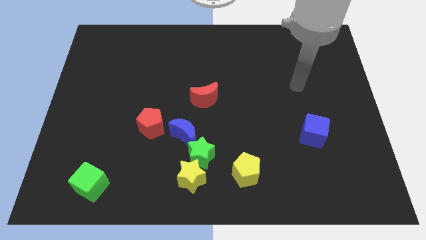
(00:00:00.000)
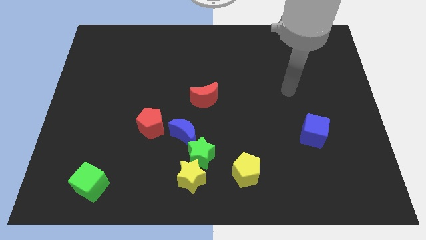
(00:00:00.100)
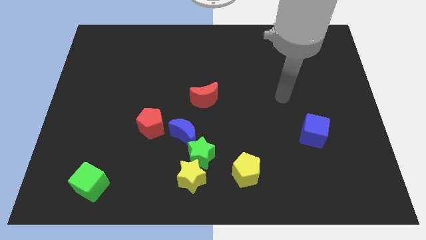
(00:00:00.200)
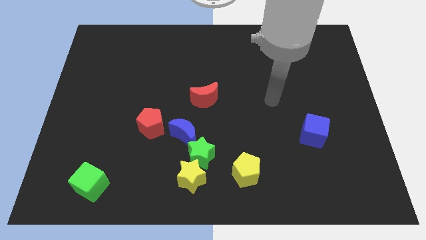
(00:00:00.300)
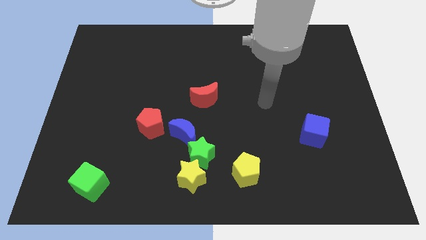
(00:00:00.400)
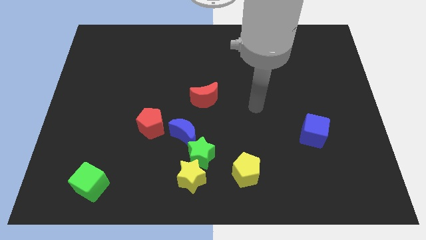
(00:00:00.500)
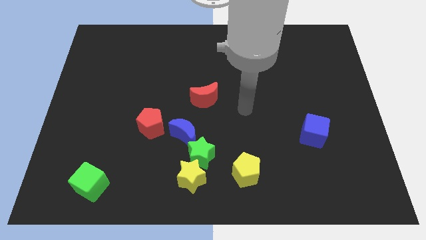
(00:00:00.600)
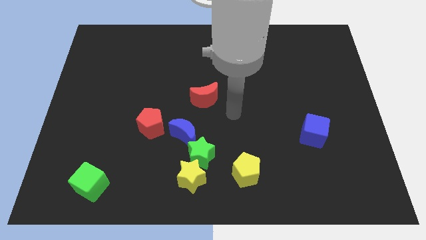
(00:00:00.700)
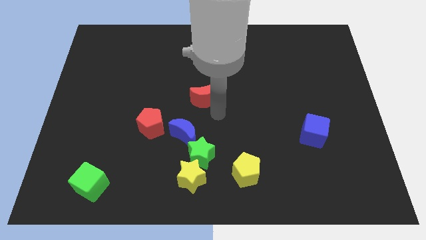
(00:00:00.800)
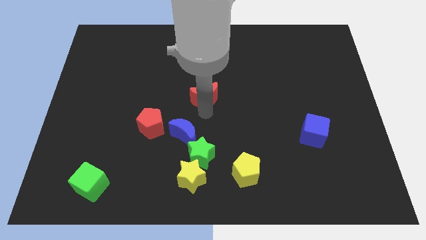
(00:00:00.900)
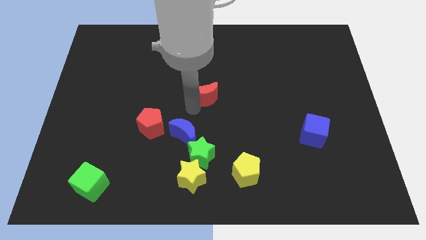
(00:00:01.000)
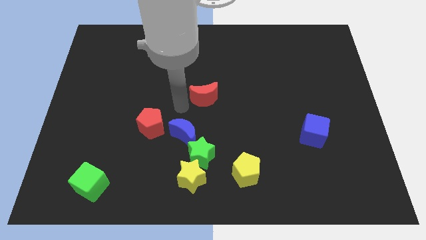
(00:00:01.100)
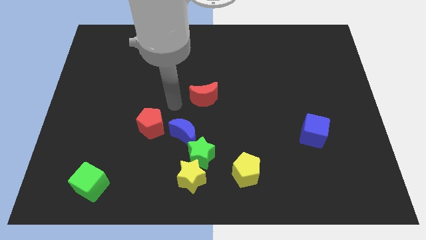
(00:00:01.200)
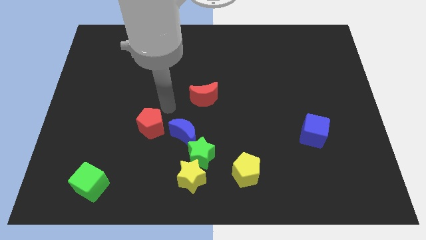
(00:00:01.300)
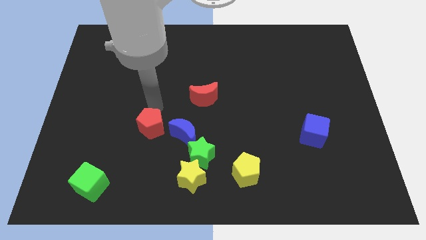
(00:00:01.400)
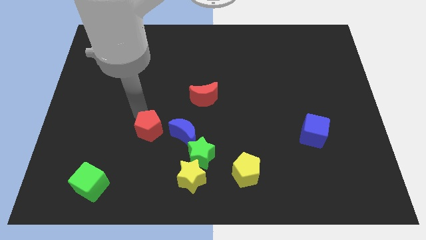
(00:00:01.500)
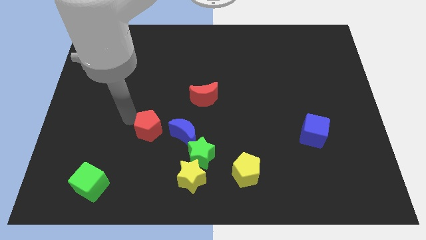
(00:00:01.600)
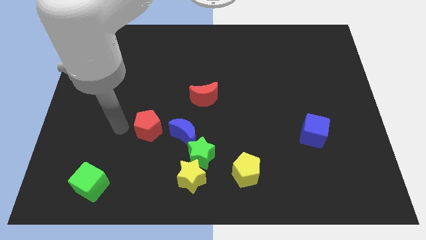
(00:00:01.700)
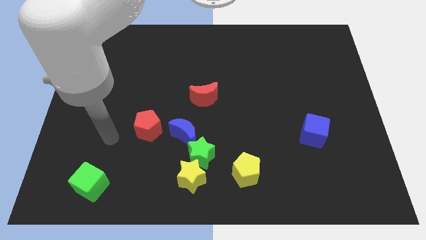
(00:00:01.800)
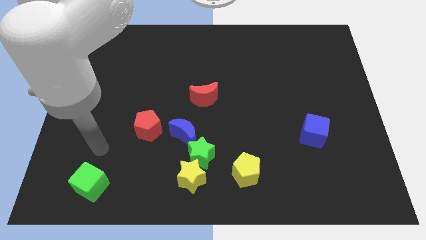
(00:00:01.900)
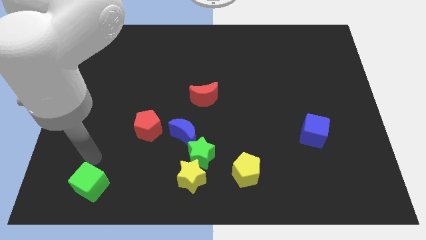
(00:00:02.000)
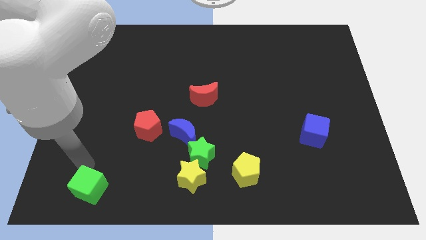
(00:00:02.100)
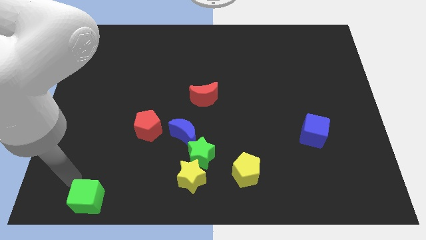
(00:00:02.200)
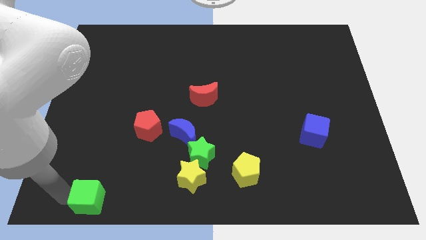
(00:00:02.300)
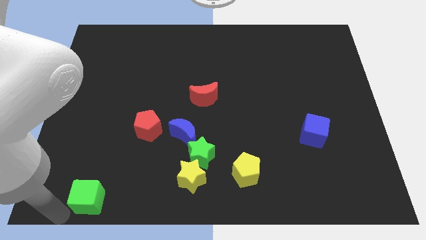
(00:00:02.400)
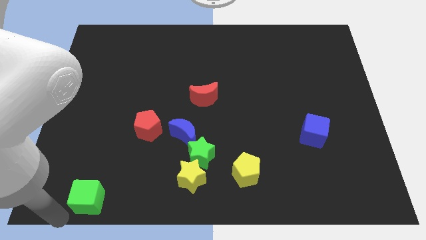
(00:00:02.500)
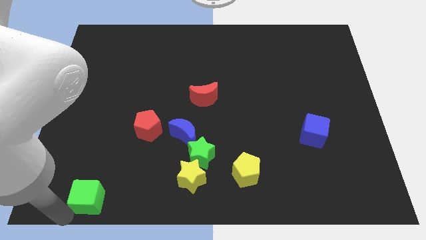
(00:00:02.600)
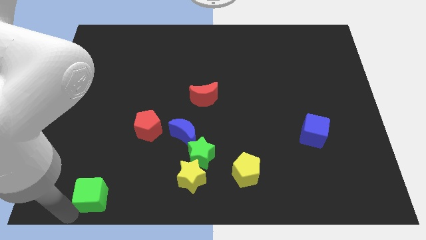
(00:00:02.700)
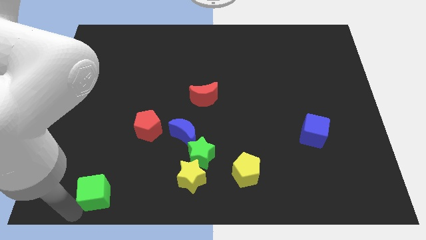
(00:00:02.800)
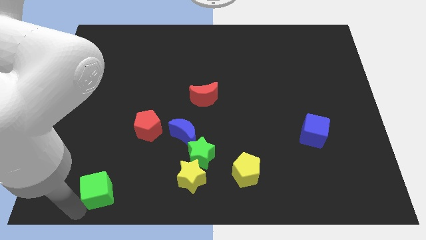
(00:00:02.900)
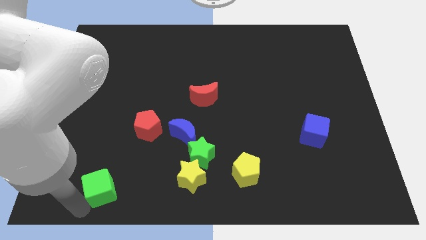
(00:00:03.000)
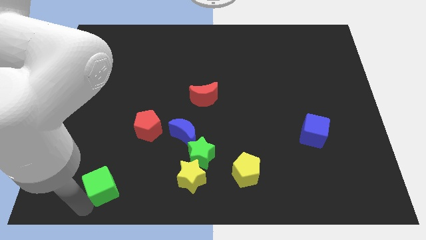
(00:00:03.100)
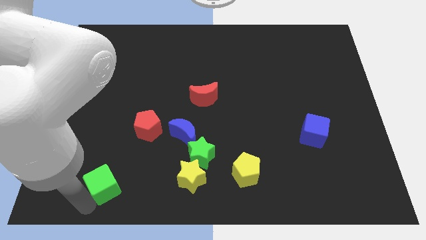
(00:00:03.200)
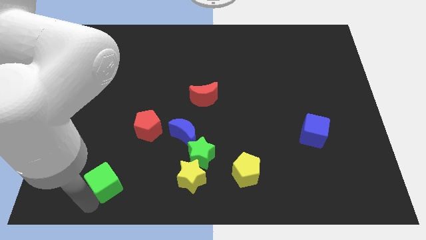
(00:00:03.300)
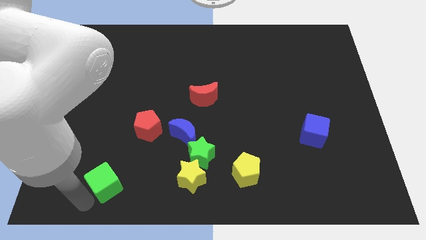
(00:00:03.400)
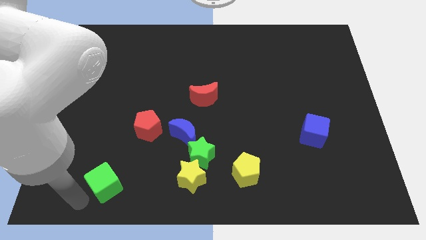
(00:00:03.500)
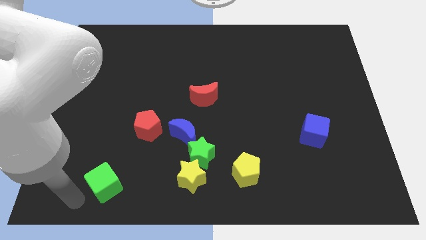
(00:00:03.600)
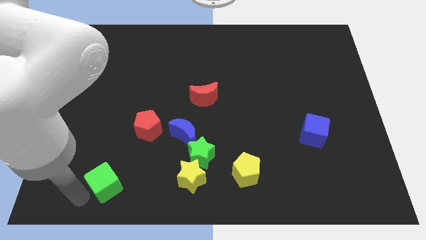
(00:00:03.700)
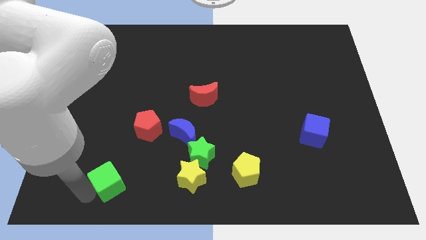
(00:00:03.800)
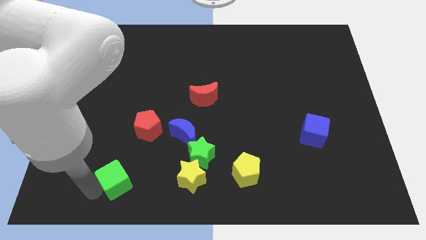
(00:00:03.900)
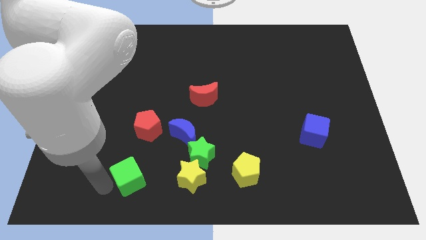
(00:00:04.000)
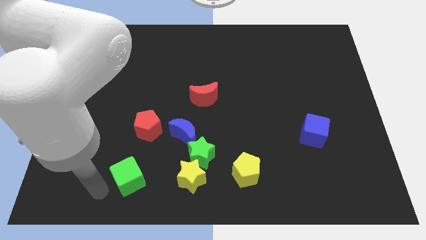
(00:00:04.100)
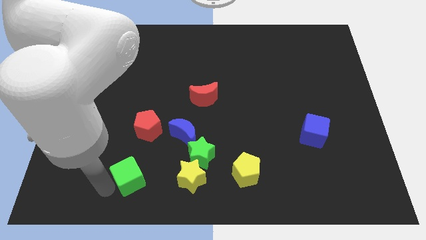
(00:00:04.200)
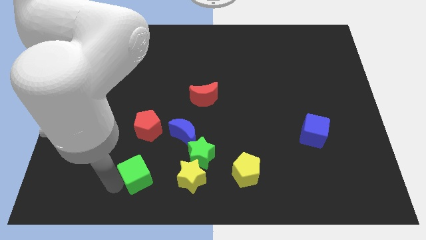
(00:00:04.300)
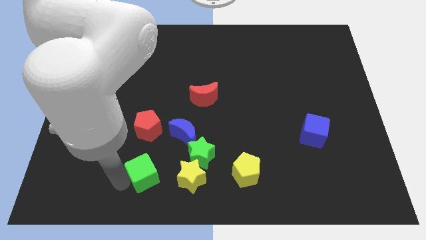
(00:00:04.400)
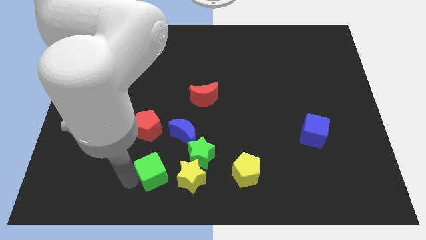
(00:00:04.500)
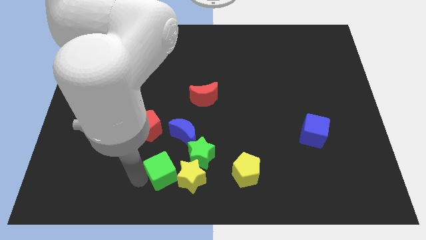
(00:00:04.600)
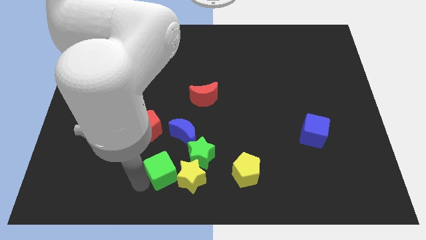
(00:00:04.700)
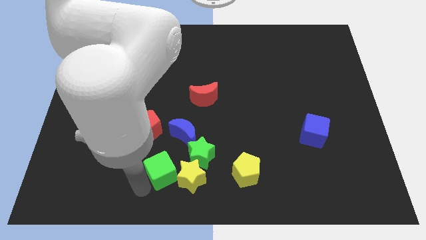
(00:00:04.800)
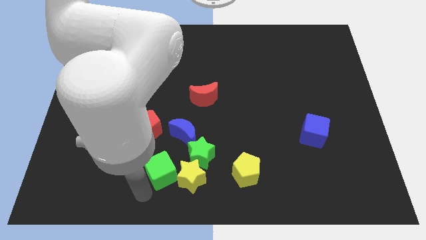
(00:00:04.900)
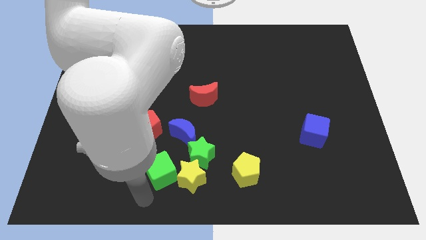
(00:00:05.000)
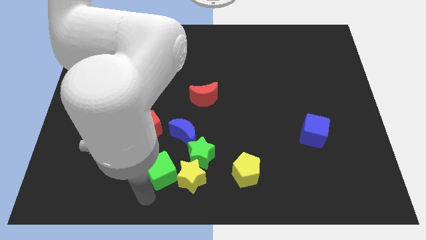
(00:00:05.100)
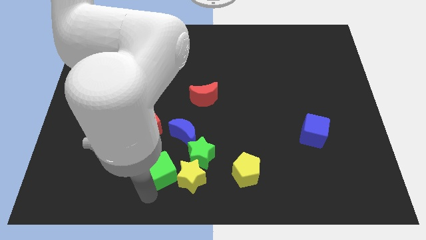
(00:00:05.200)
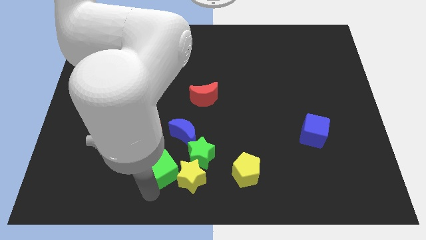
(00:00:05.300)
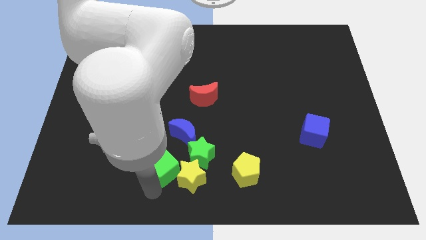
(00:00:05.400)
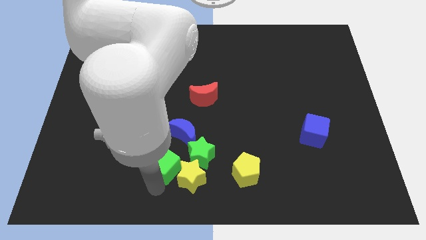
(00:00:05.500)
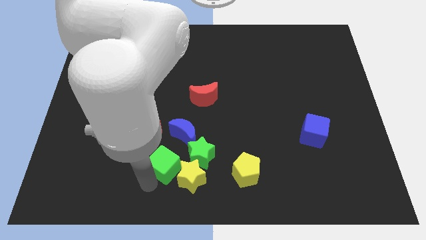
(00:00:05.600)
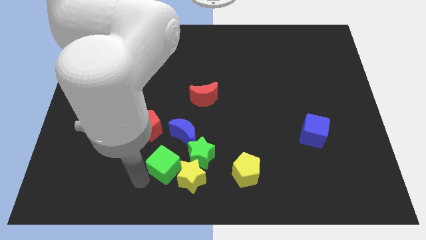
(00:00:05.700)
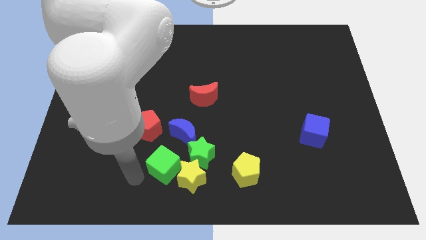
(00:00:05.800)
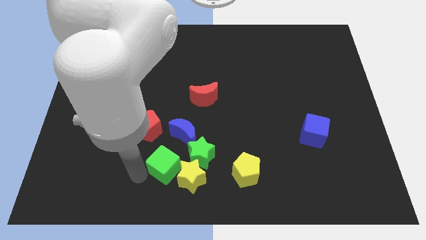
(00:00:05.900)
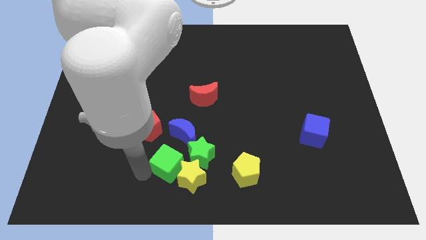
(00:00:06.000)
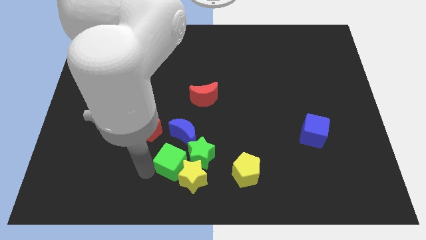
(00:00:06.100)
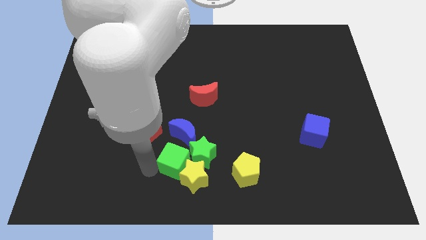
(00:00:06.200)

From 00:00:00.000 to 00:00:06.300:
slide the green cube to the green star

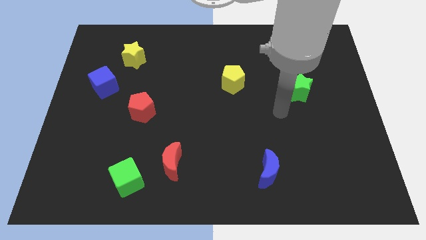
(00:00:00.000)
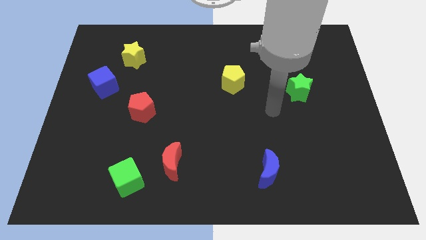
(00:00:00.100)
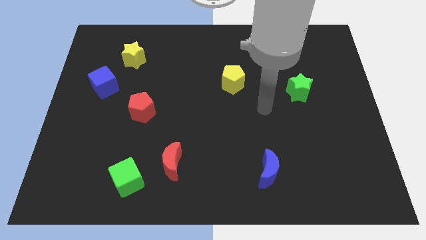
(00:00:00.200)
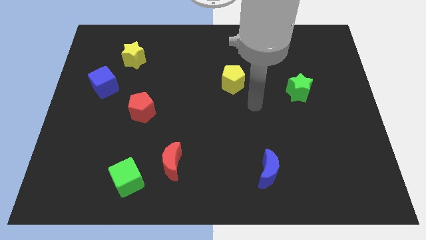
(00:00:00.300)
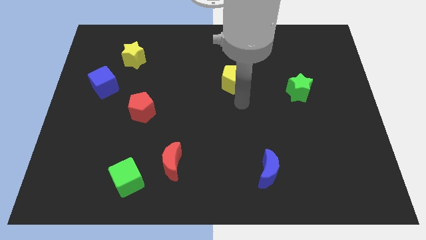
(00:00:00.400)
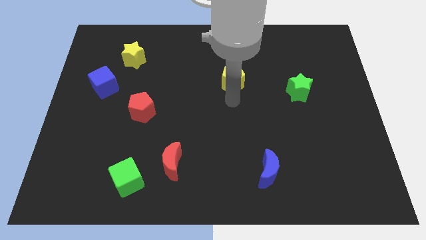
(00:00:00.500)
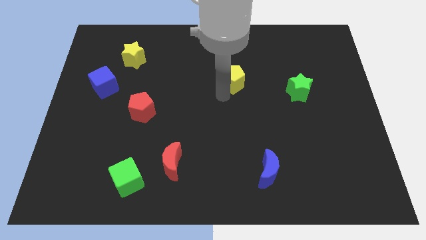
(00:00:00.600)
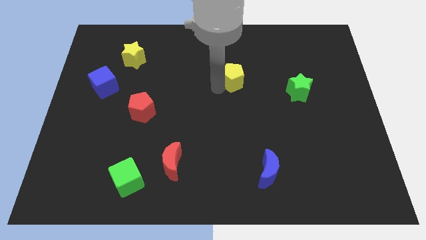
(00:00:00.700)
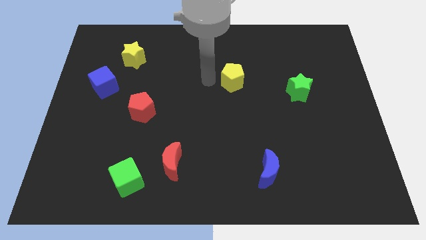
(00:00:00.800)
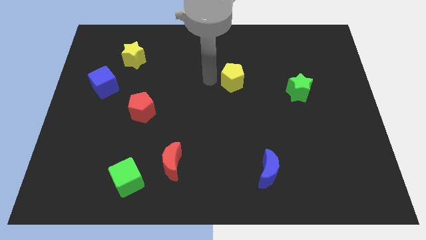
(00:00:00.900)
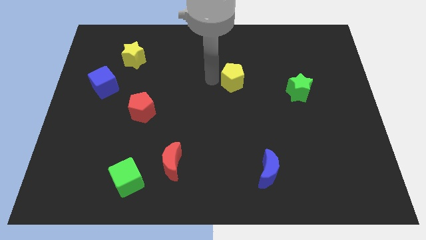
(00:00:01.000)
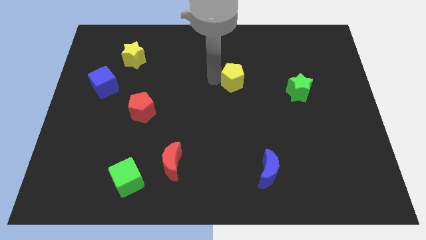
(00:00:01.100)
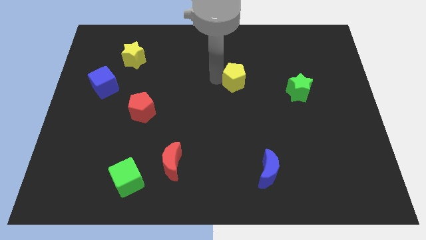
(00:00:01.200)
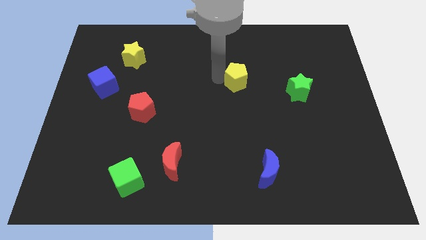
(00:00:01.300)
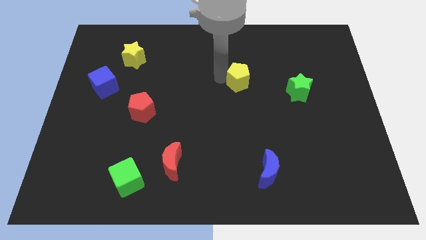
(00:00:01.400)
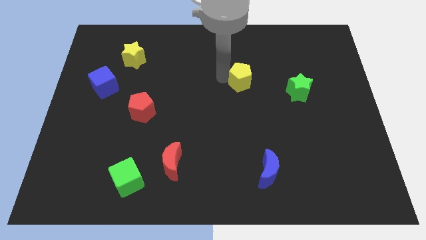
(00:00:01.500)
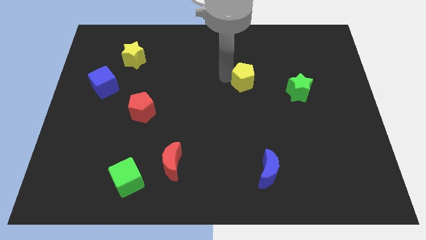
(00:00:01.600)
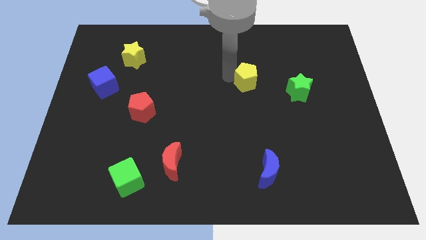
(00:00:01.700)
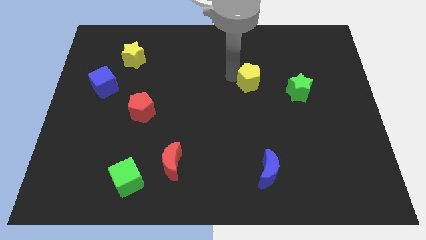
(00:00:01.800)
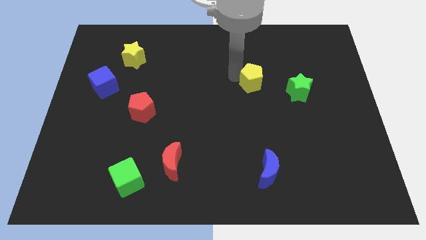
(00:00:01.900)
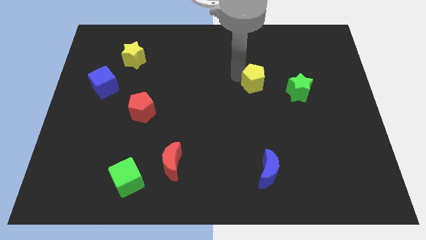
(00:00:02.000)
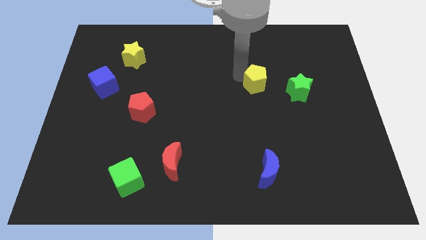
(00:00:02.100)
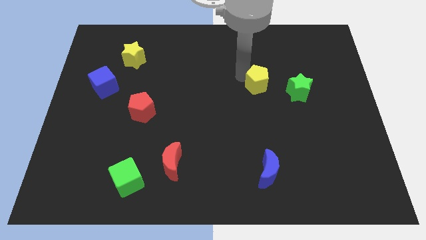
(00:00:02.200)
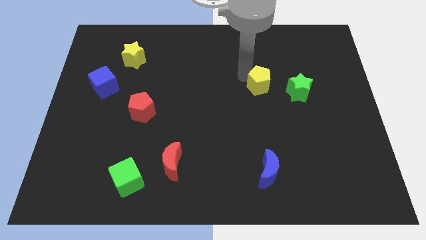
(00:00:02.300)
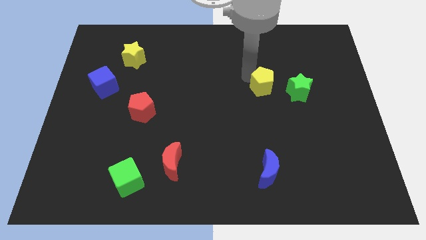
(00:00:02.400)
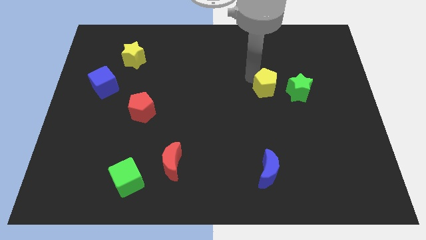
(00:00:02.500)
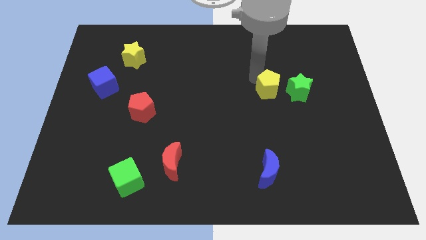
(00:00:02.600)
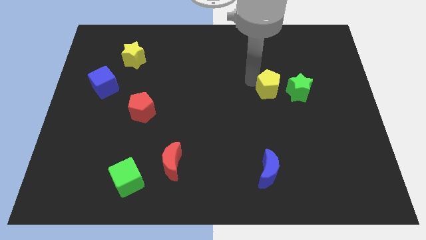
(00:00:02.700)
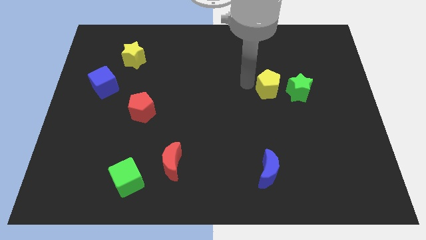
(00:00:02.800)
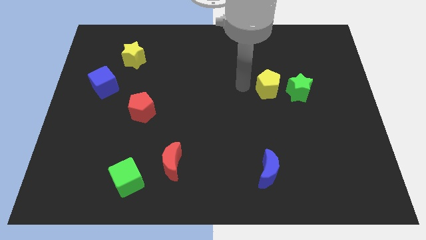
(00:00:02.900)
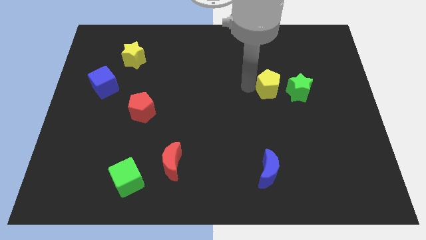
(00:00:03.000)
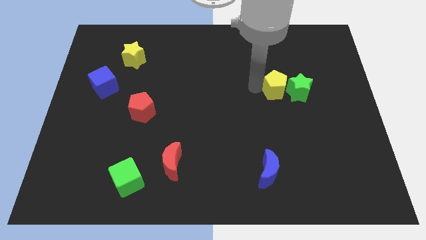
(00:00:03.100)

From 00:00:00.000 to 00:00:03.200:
push the yellow pentagon close to the green star
